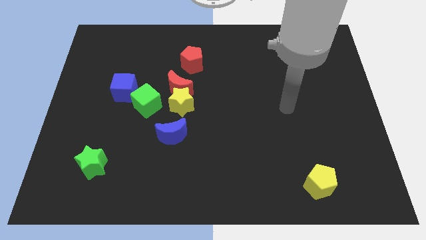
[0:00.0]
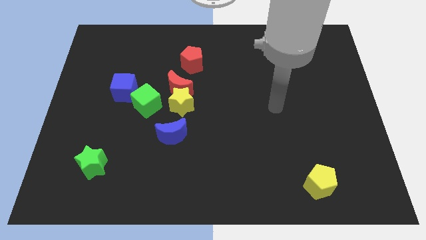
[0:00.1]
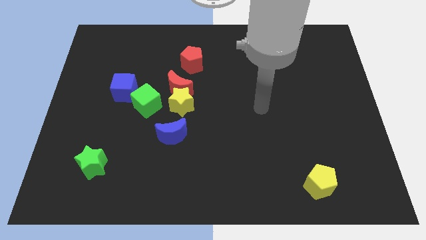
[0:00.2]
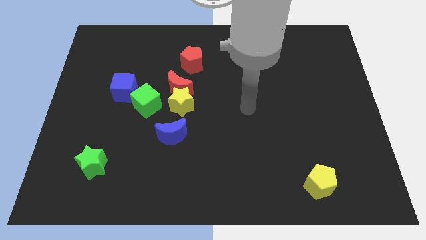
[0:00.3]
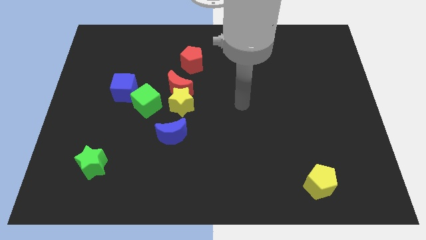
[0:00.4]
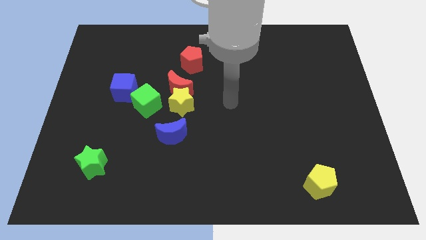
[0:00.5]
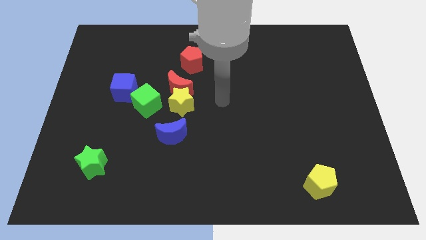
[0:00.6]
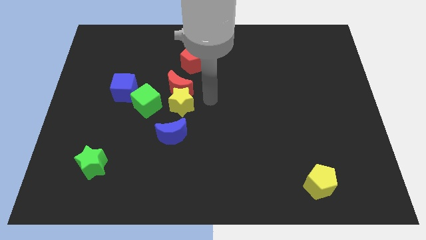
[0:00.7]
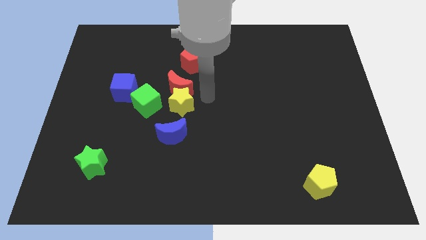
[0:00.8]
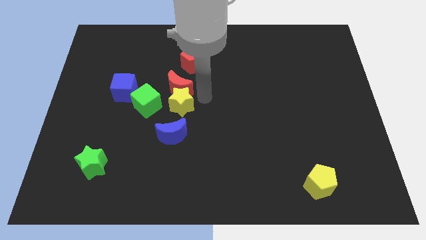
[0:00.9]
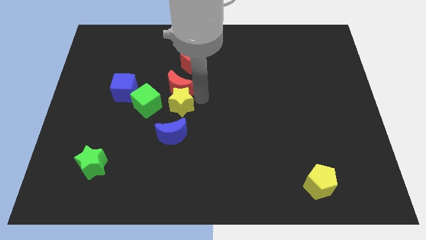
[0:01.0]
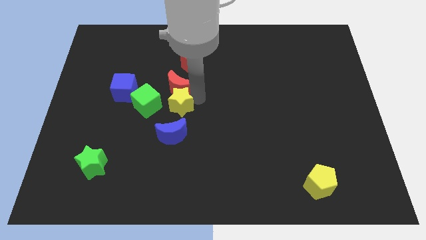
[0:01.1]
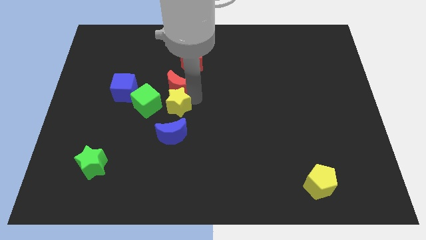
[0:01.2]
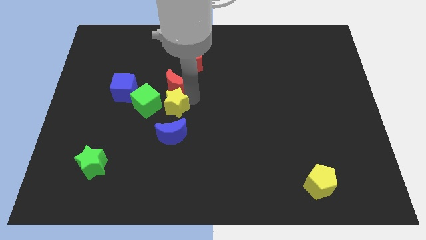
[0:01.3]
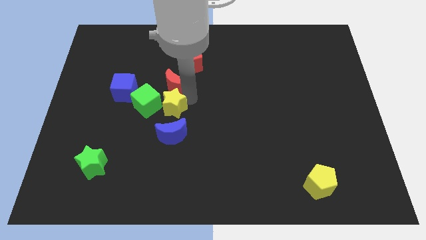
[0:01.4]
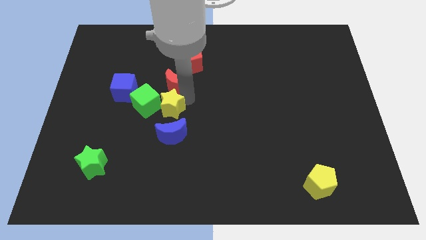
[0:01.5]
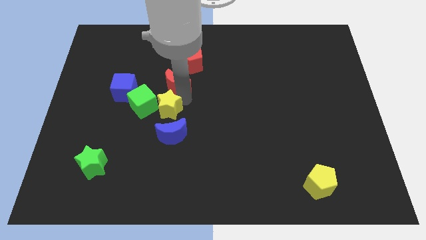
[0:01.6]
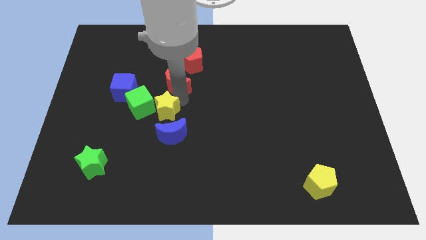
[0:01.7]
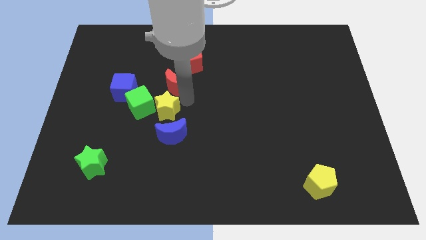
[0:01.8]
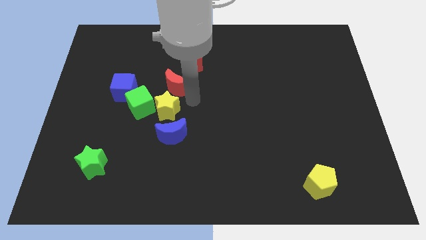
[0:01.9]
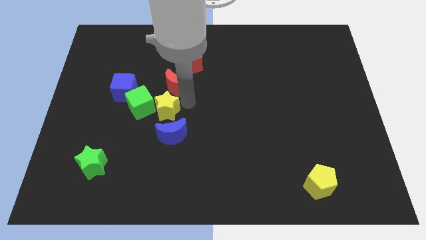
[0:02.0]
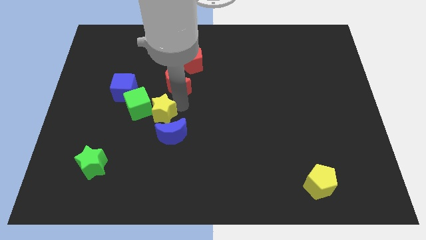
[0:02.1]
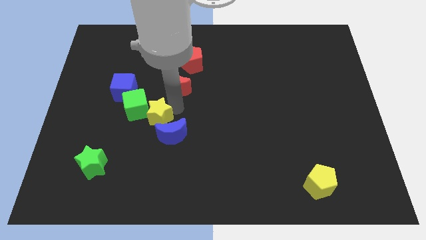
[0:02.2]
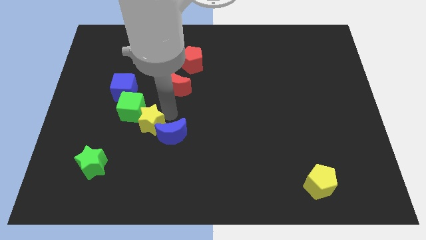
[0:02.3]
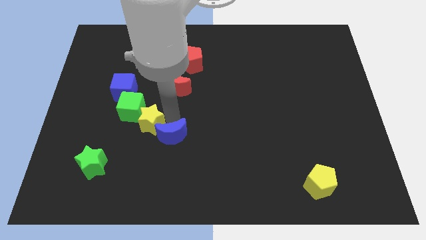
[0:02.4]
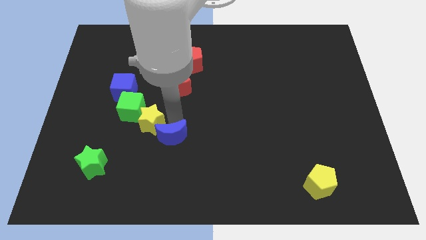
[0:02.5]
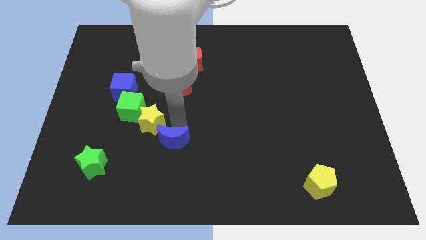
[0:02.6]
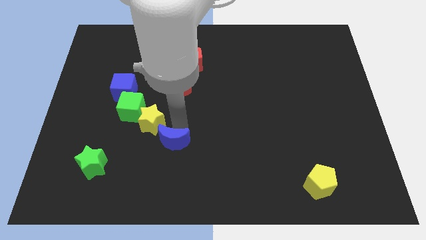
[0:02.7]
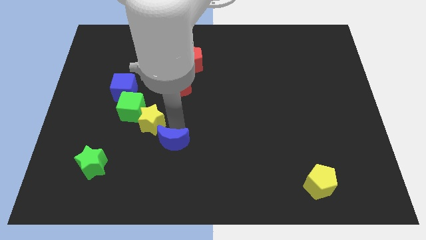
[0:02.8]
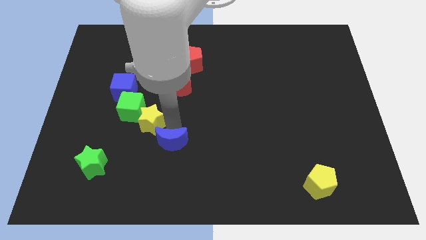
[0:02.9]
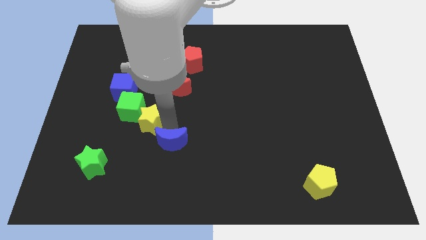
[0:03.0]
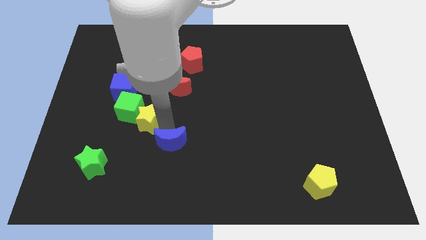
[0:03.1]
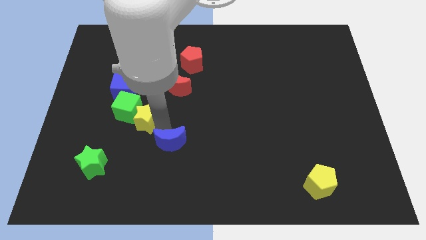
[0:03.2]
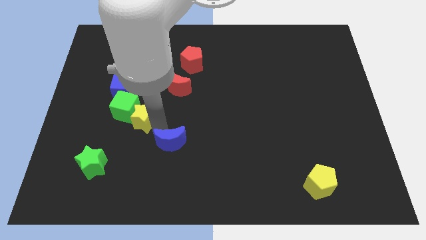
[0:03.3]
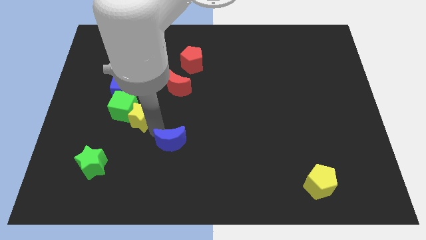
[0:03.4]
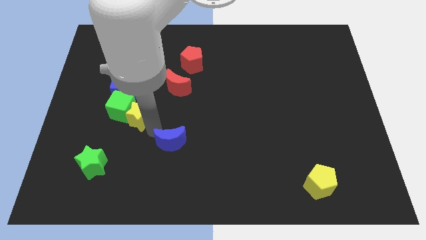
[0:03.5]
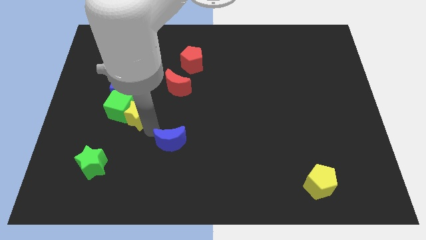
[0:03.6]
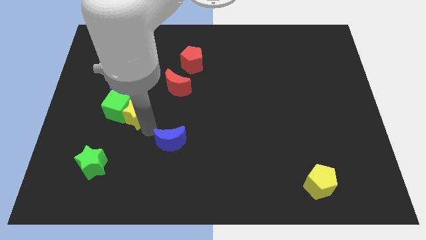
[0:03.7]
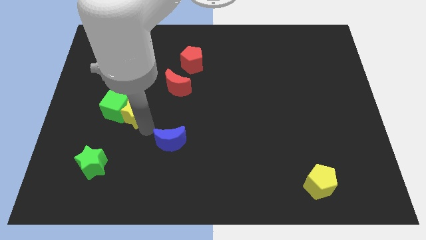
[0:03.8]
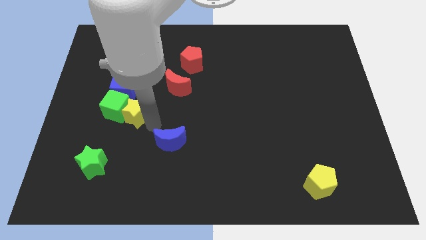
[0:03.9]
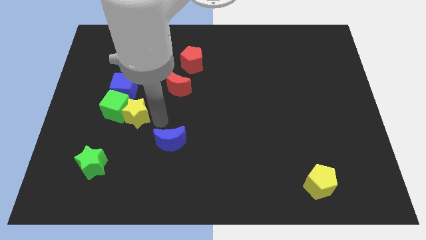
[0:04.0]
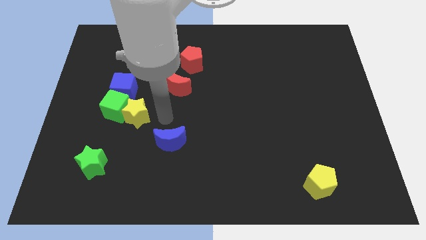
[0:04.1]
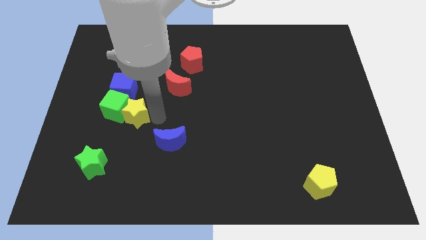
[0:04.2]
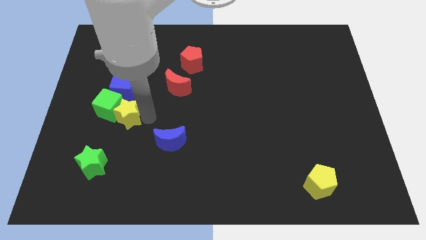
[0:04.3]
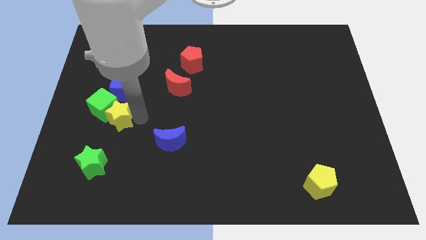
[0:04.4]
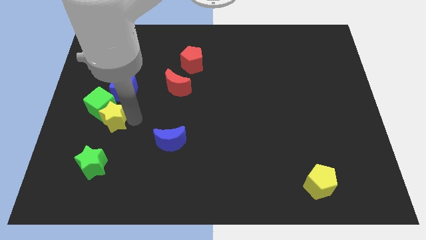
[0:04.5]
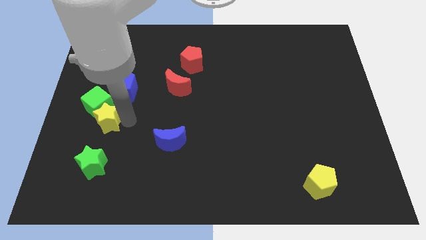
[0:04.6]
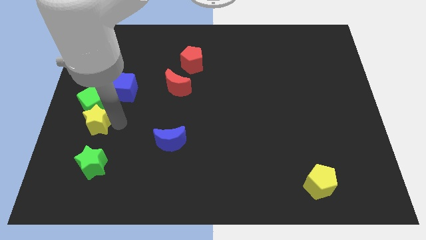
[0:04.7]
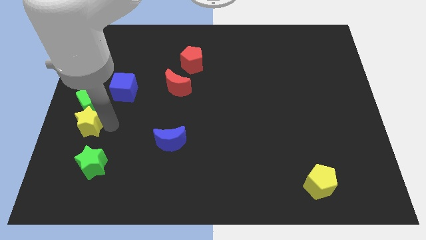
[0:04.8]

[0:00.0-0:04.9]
put the yellow star to the center left
